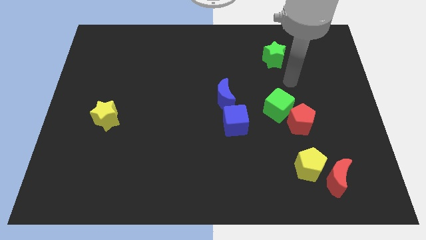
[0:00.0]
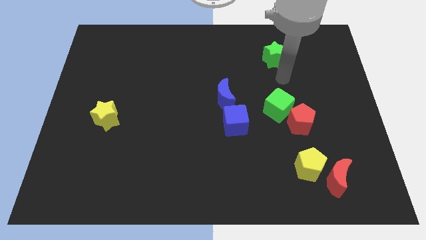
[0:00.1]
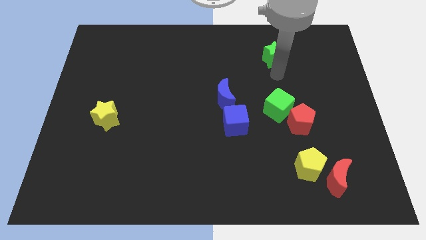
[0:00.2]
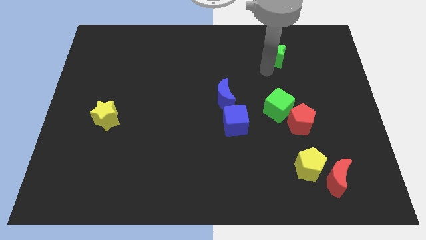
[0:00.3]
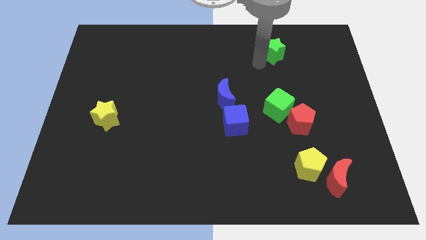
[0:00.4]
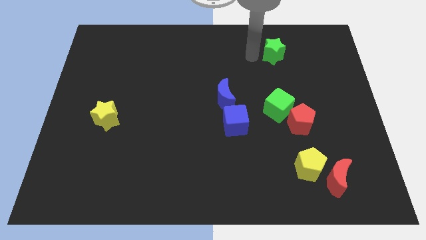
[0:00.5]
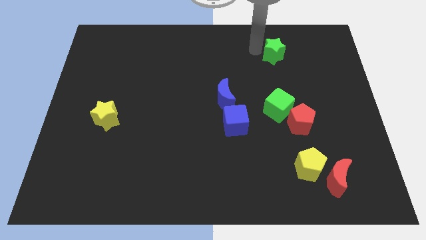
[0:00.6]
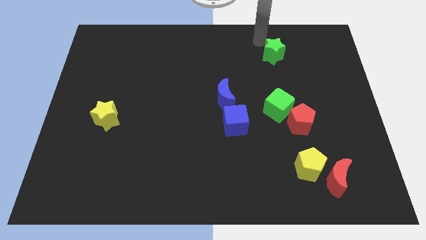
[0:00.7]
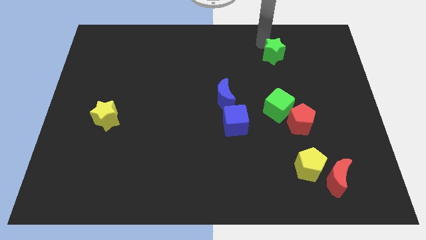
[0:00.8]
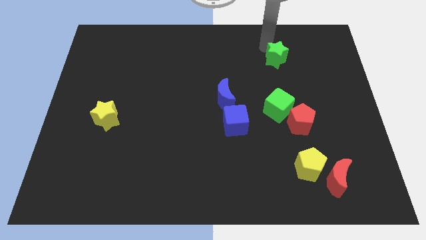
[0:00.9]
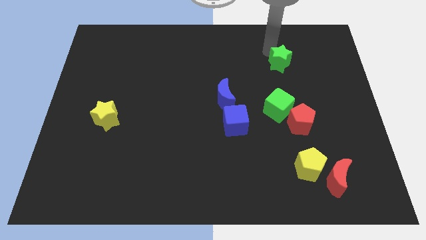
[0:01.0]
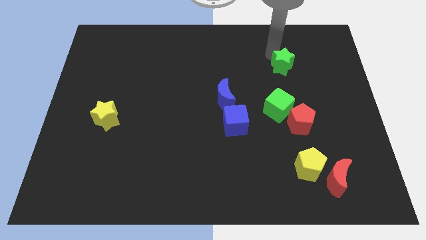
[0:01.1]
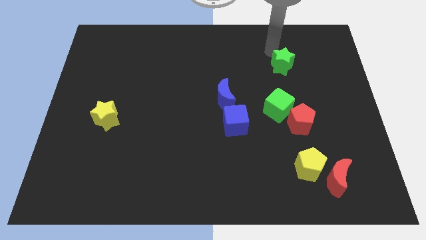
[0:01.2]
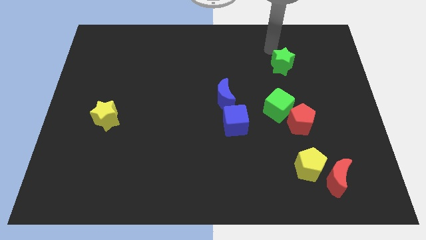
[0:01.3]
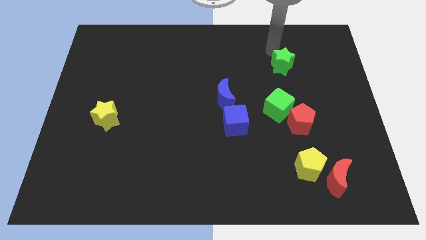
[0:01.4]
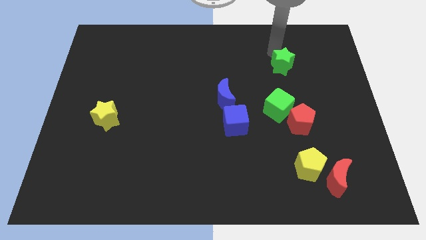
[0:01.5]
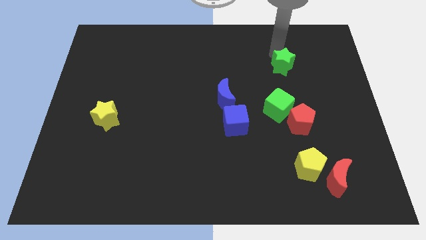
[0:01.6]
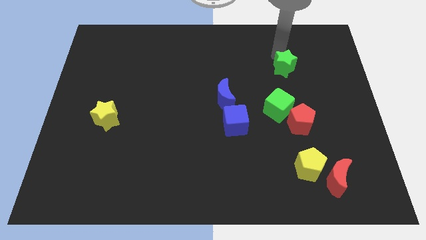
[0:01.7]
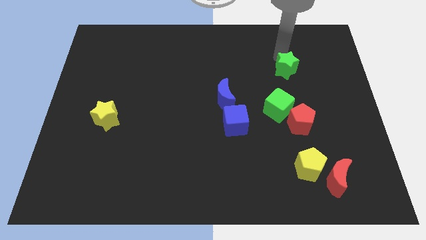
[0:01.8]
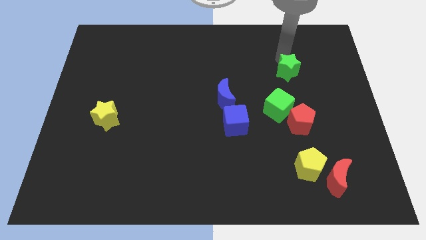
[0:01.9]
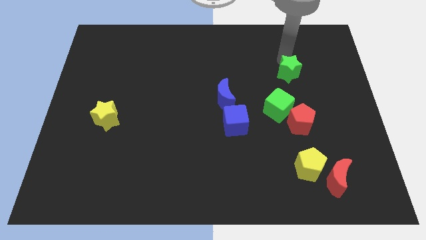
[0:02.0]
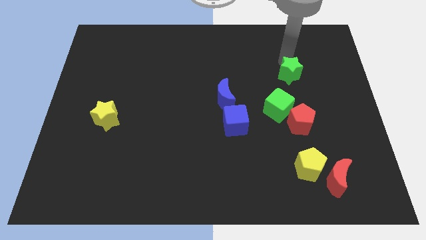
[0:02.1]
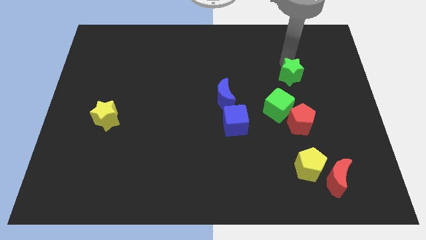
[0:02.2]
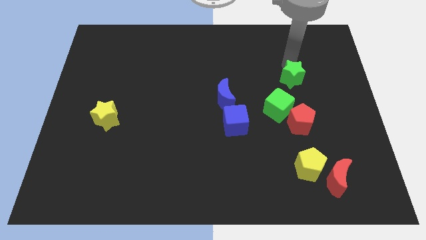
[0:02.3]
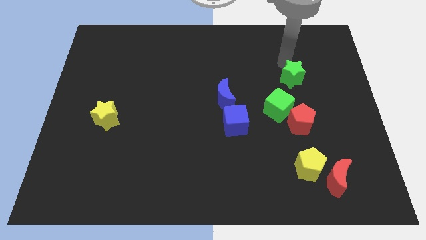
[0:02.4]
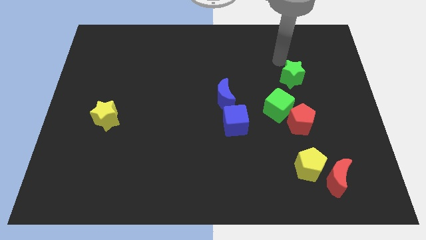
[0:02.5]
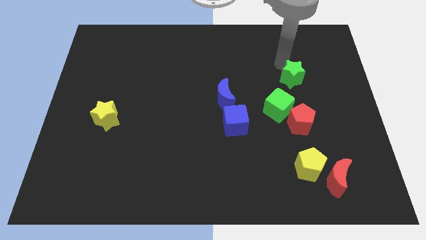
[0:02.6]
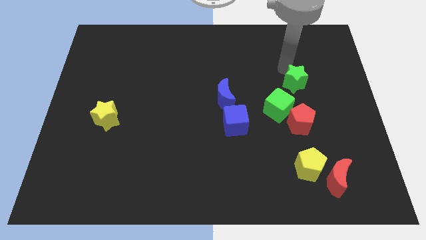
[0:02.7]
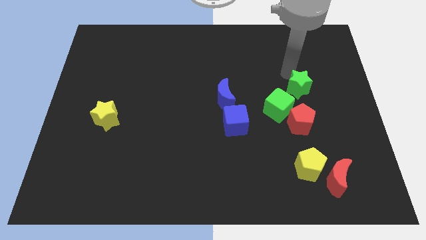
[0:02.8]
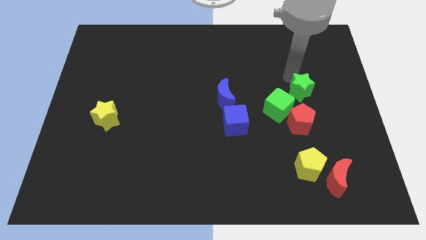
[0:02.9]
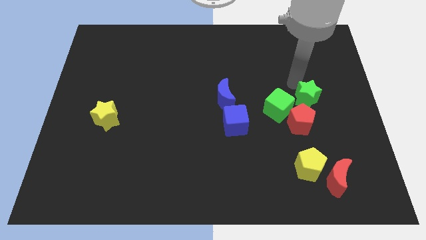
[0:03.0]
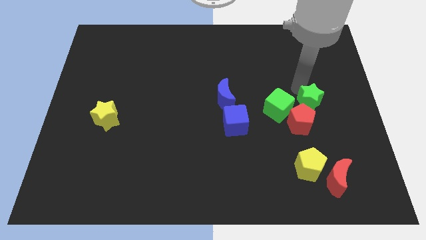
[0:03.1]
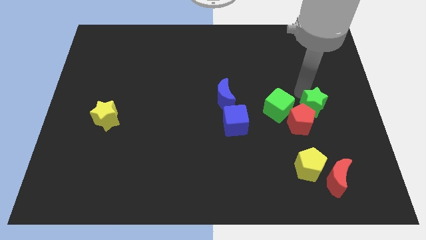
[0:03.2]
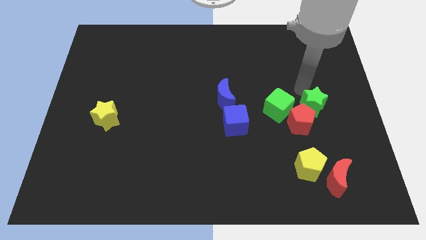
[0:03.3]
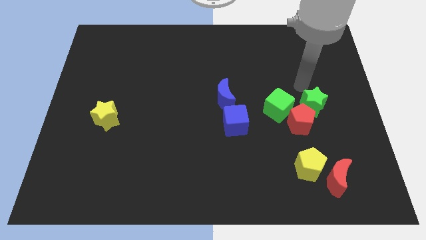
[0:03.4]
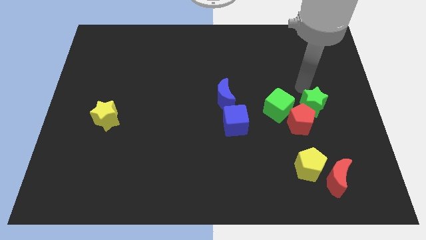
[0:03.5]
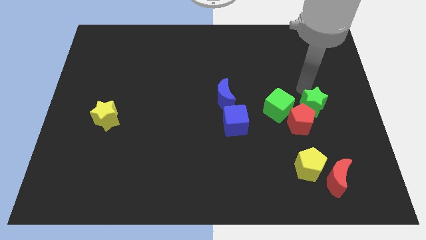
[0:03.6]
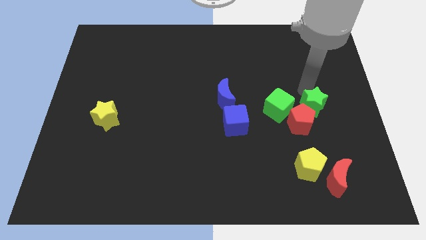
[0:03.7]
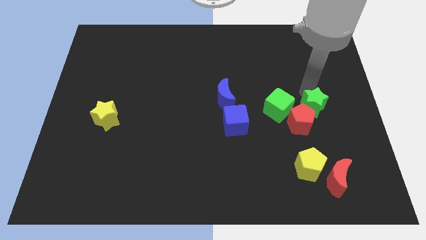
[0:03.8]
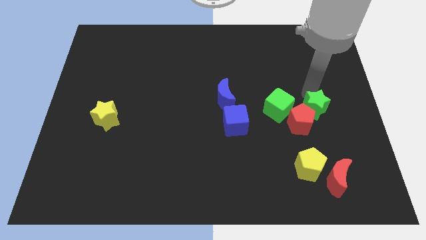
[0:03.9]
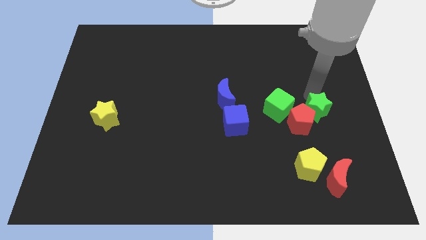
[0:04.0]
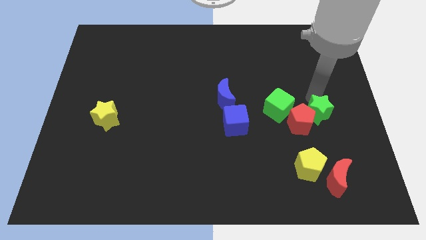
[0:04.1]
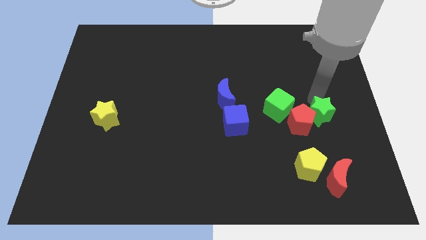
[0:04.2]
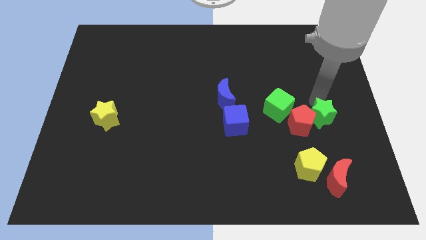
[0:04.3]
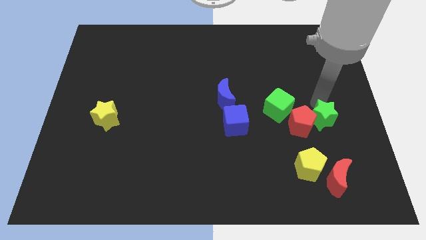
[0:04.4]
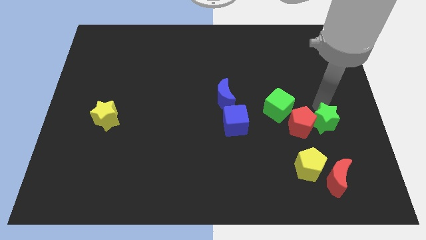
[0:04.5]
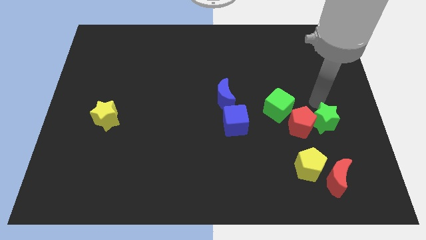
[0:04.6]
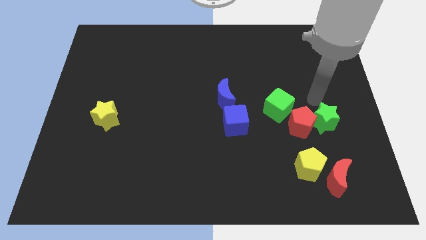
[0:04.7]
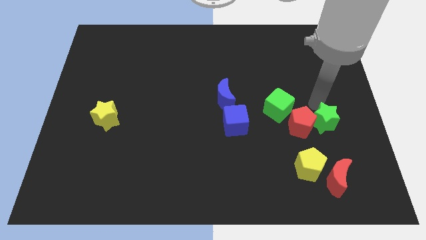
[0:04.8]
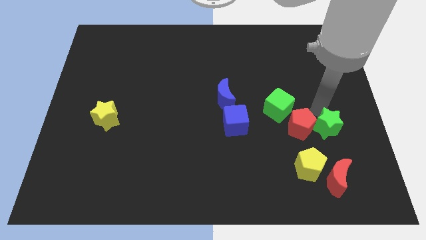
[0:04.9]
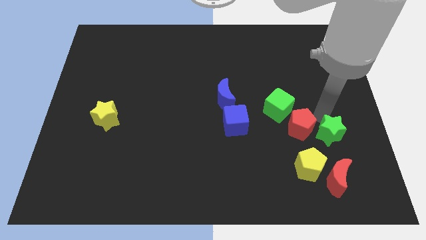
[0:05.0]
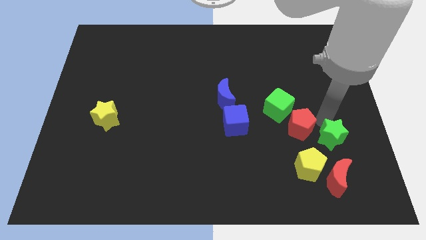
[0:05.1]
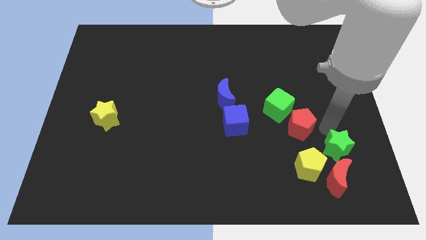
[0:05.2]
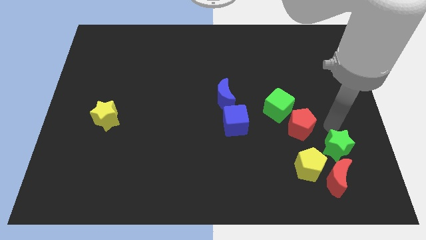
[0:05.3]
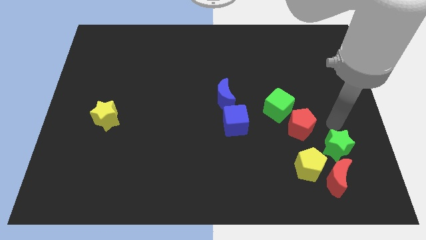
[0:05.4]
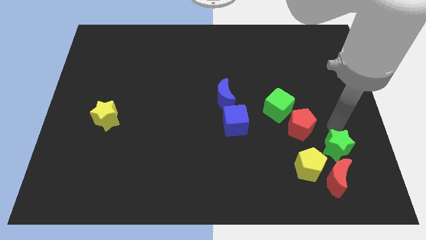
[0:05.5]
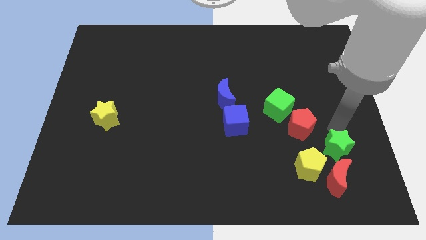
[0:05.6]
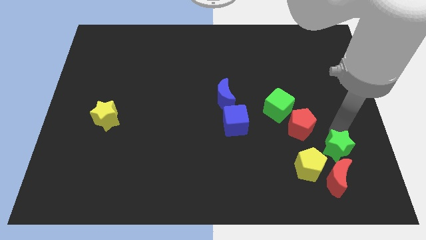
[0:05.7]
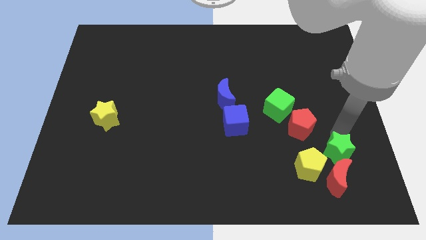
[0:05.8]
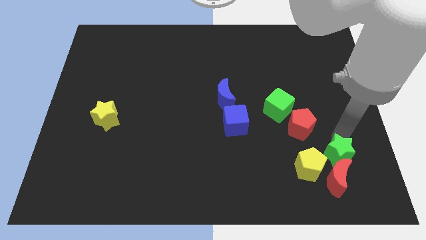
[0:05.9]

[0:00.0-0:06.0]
move the green star towards the red moon

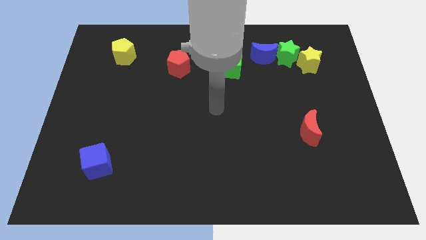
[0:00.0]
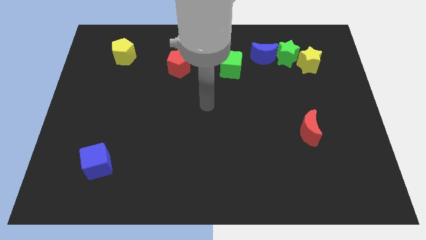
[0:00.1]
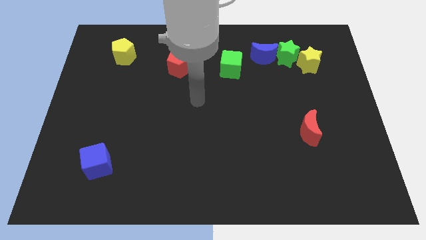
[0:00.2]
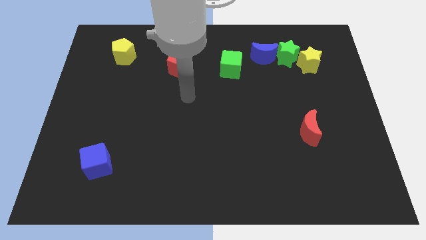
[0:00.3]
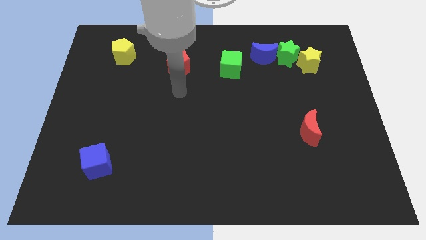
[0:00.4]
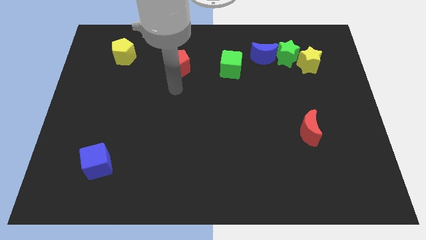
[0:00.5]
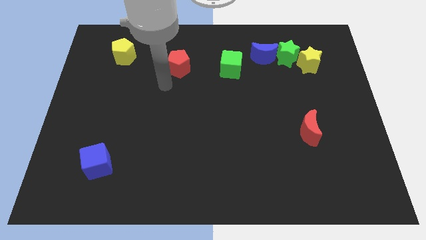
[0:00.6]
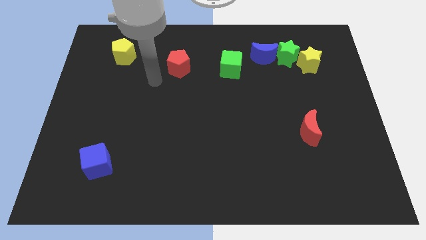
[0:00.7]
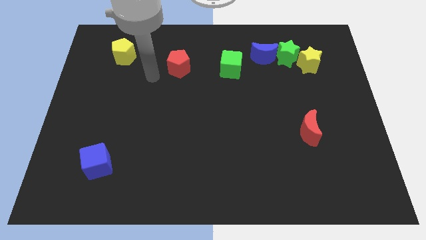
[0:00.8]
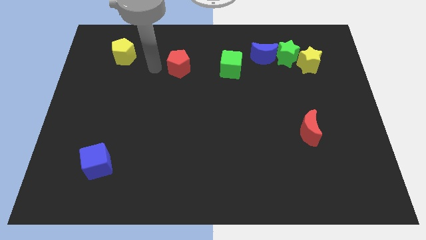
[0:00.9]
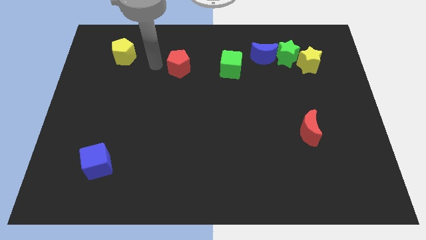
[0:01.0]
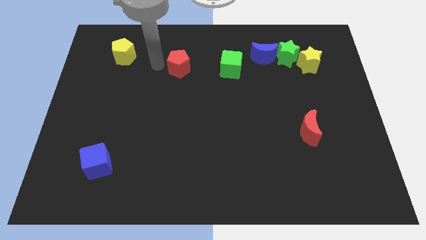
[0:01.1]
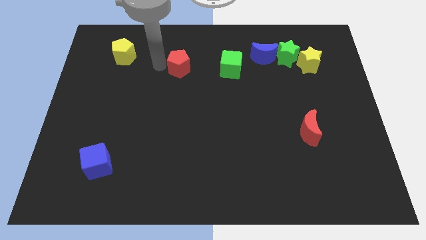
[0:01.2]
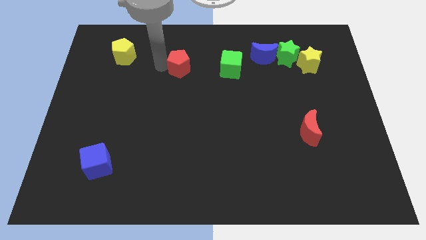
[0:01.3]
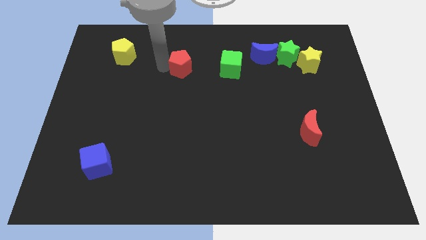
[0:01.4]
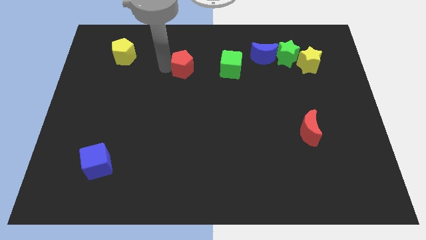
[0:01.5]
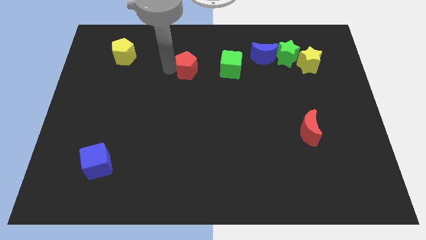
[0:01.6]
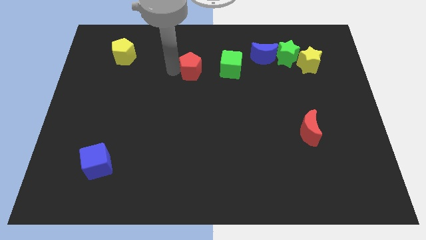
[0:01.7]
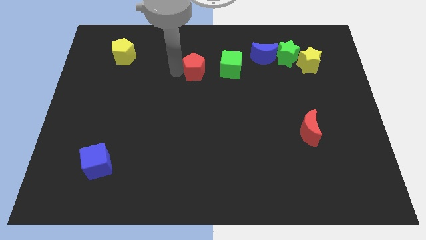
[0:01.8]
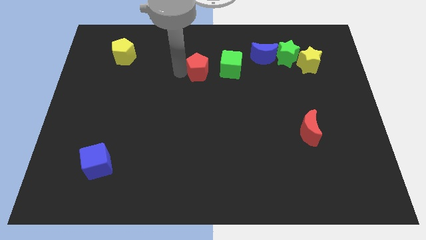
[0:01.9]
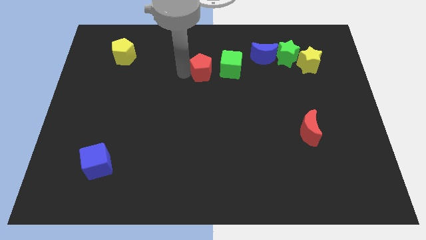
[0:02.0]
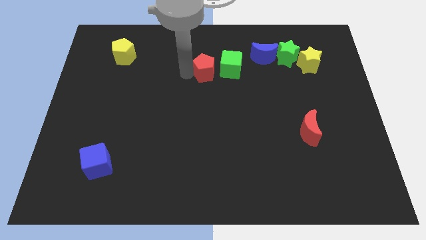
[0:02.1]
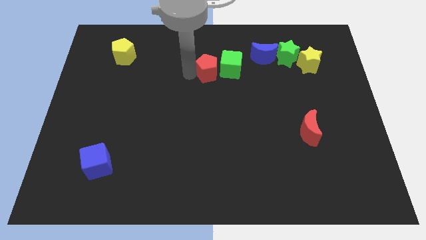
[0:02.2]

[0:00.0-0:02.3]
slide the red pentagon towards the green cube
